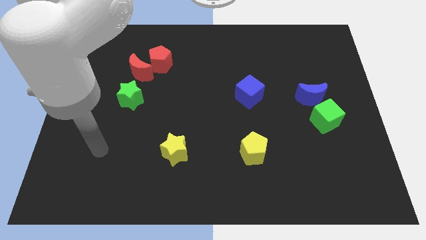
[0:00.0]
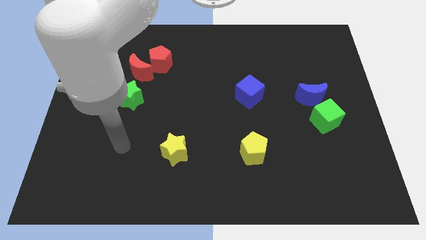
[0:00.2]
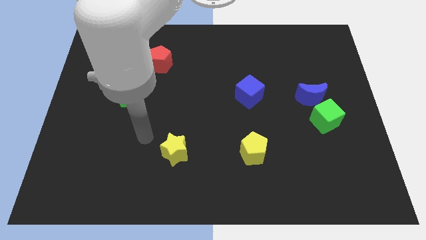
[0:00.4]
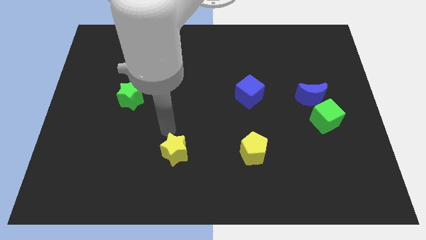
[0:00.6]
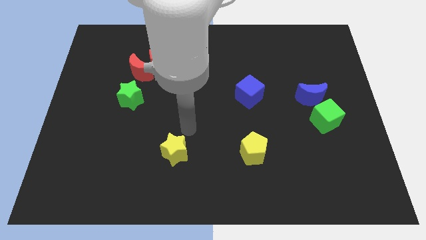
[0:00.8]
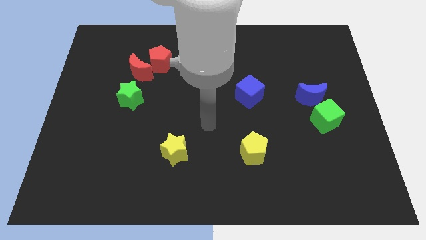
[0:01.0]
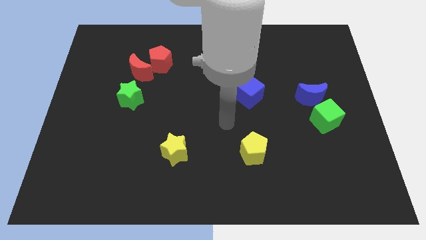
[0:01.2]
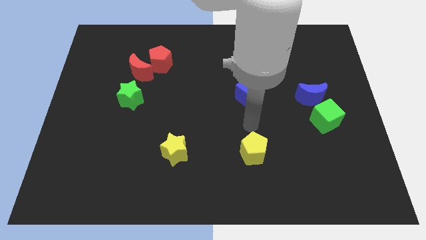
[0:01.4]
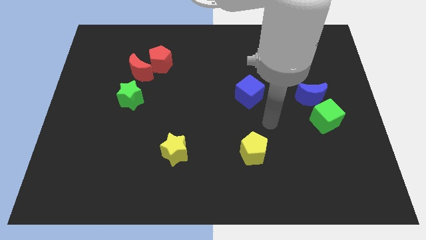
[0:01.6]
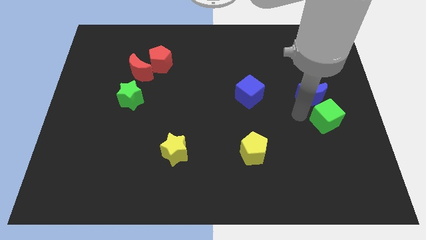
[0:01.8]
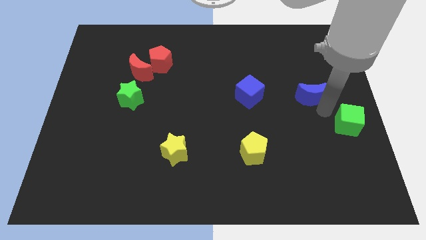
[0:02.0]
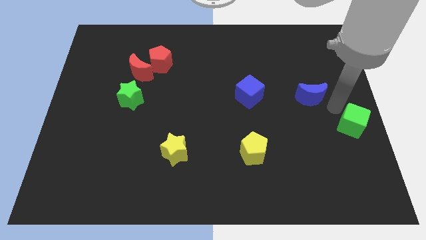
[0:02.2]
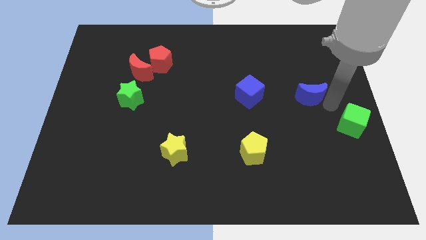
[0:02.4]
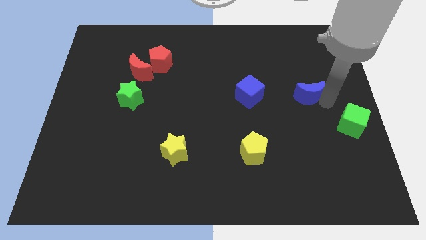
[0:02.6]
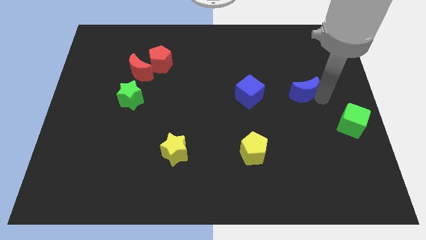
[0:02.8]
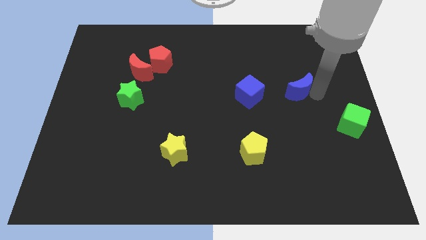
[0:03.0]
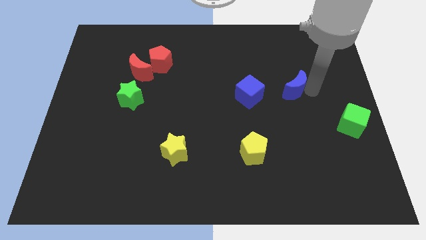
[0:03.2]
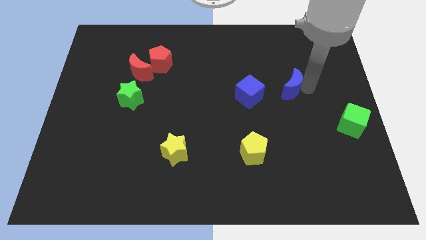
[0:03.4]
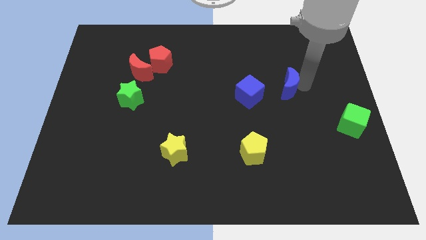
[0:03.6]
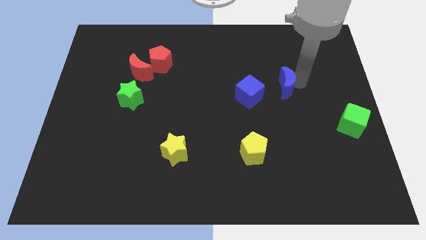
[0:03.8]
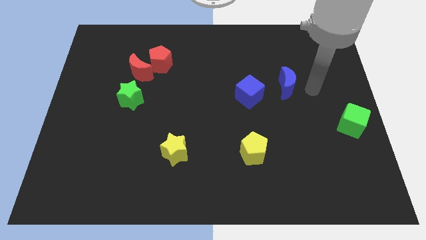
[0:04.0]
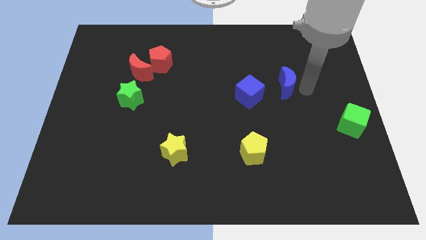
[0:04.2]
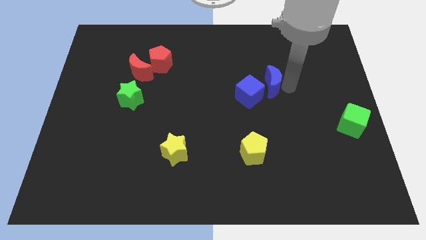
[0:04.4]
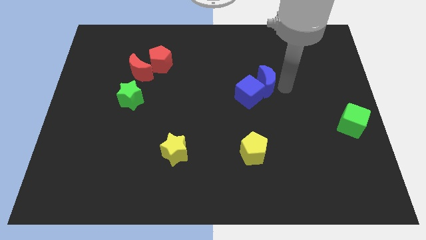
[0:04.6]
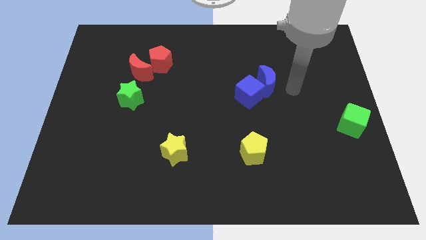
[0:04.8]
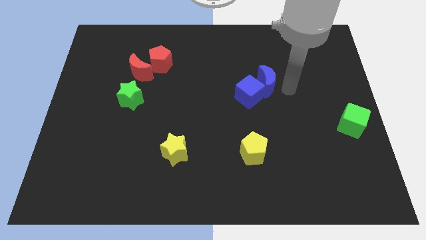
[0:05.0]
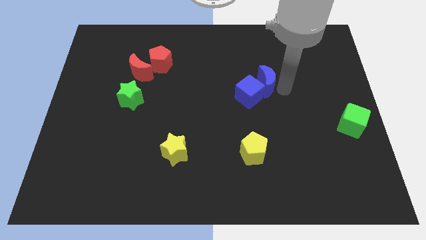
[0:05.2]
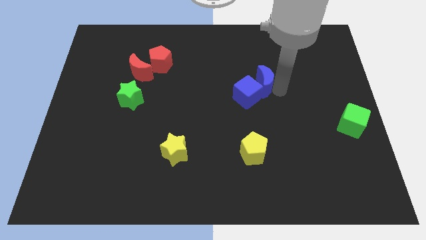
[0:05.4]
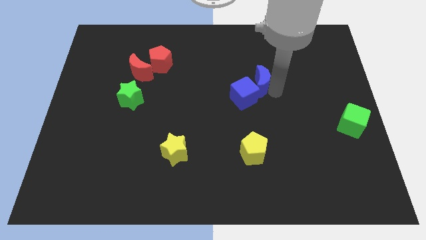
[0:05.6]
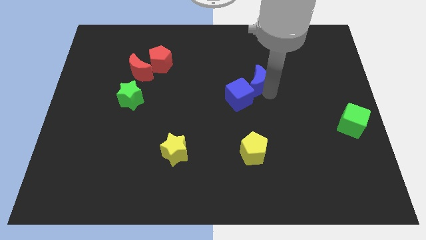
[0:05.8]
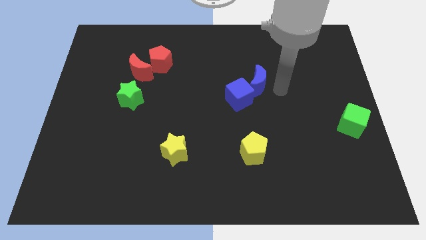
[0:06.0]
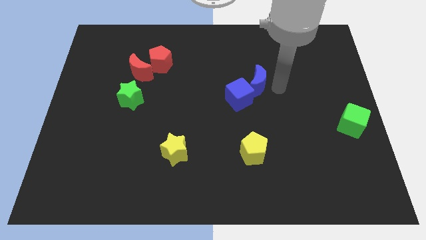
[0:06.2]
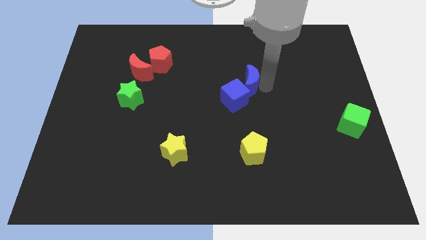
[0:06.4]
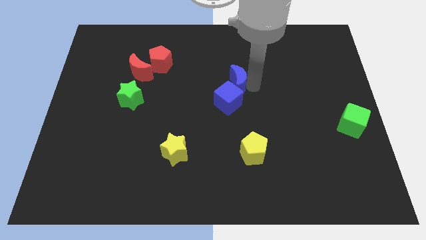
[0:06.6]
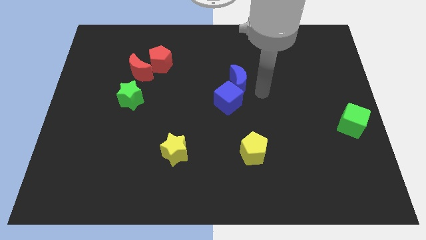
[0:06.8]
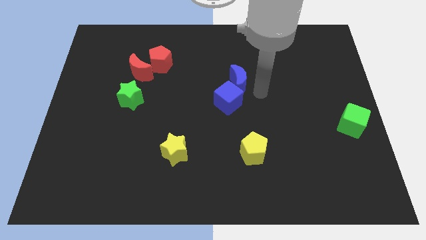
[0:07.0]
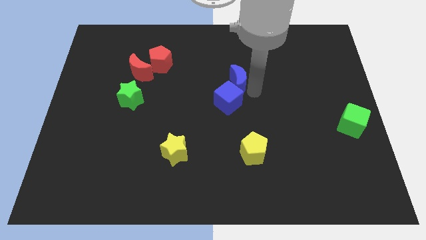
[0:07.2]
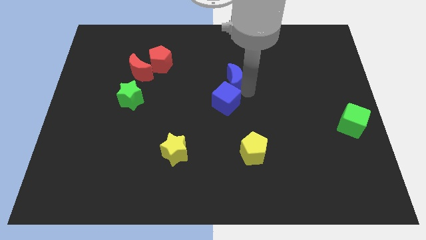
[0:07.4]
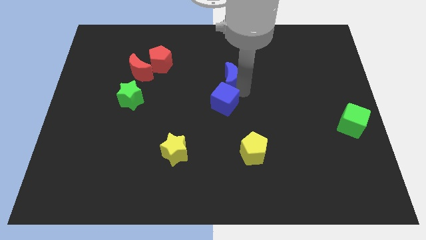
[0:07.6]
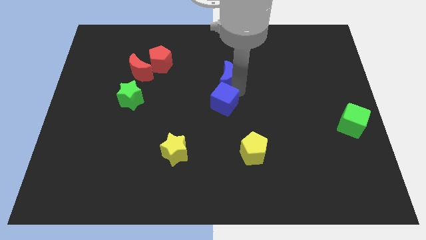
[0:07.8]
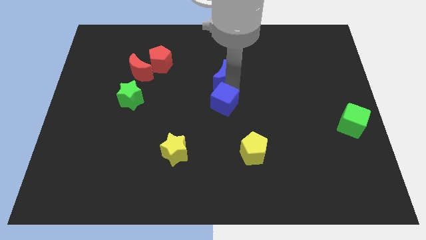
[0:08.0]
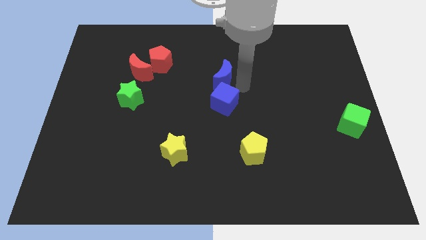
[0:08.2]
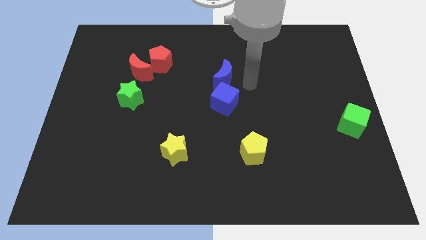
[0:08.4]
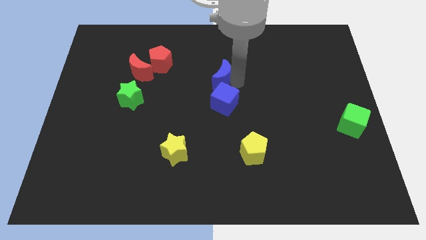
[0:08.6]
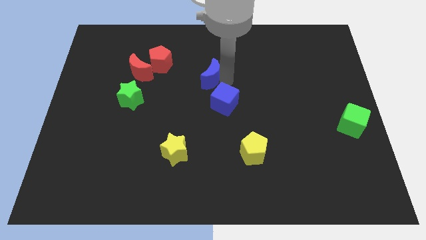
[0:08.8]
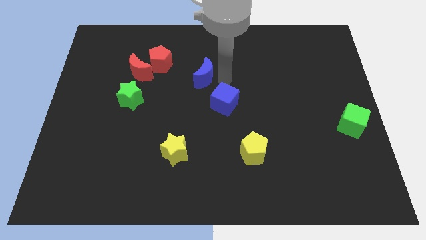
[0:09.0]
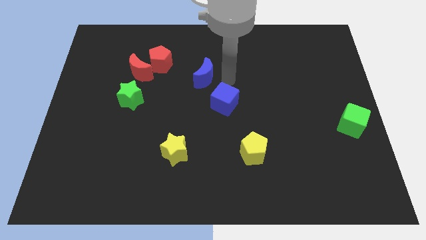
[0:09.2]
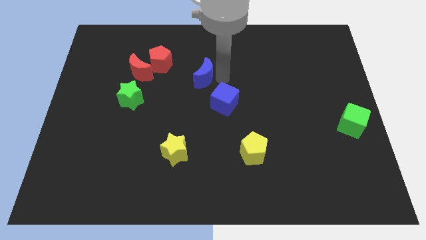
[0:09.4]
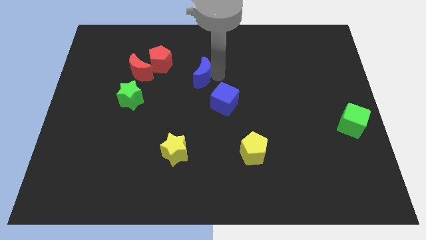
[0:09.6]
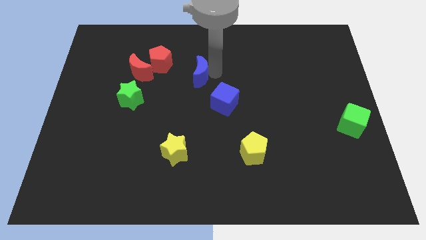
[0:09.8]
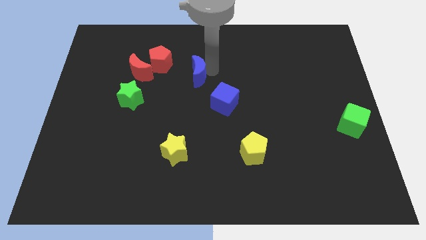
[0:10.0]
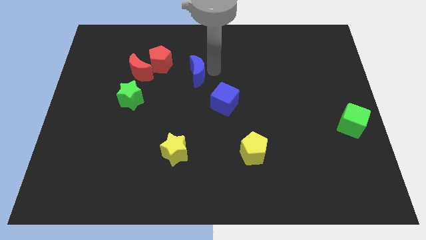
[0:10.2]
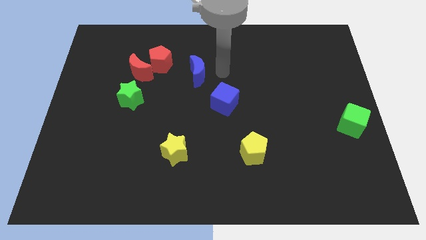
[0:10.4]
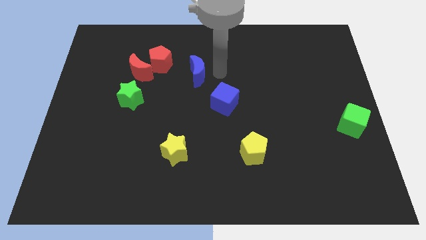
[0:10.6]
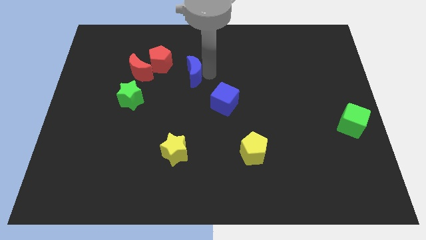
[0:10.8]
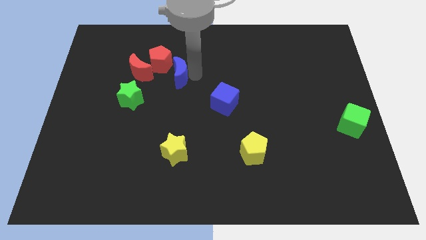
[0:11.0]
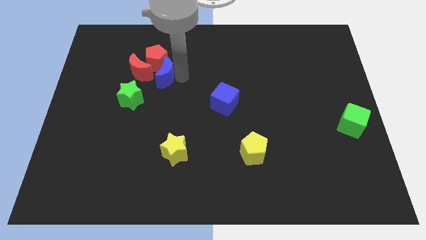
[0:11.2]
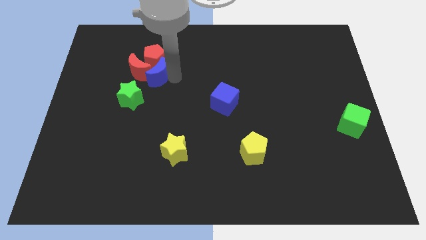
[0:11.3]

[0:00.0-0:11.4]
move the blue moon close to the red moon

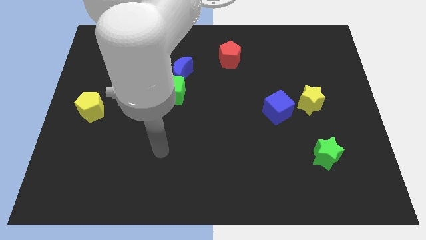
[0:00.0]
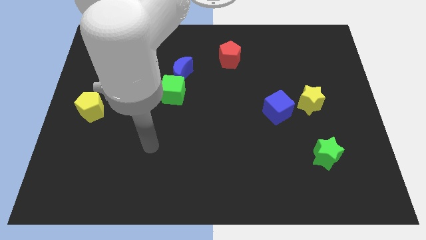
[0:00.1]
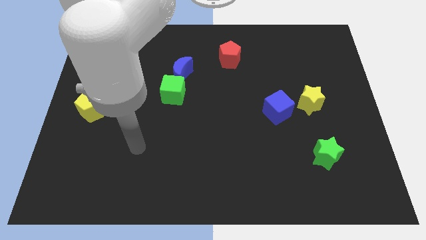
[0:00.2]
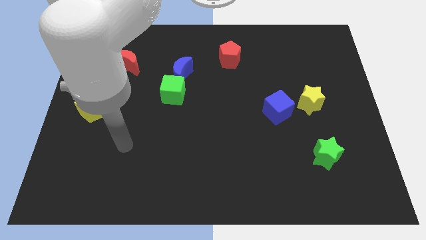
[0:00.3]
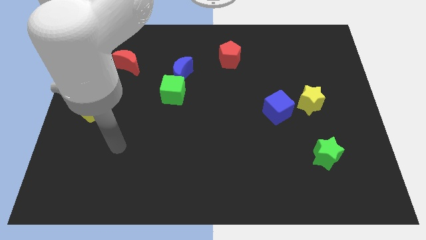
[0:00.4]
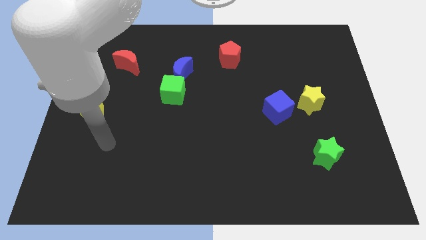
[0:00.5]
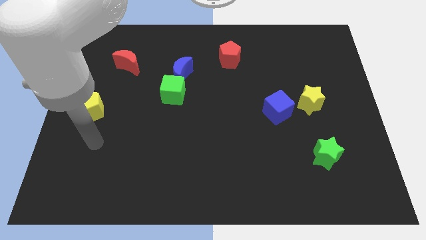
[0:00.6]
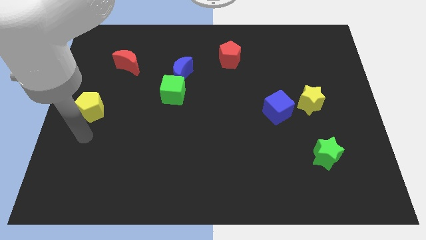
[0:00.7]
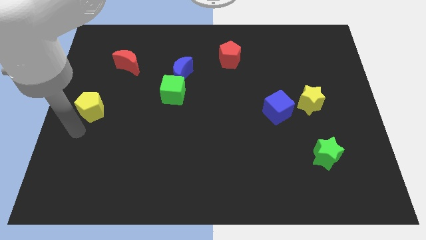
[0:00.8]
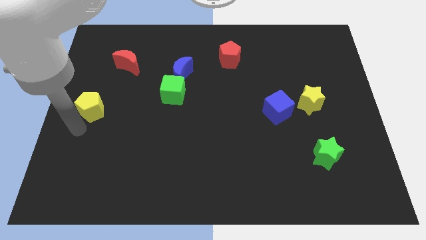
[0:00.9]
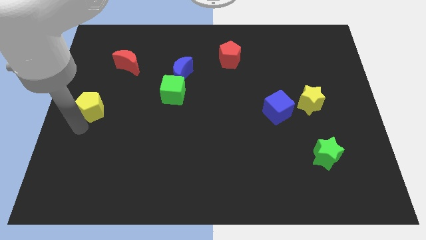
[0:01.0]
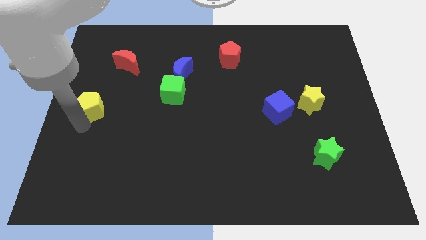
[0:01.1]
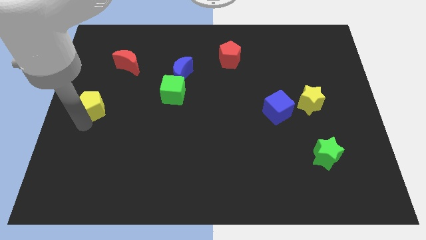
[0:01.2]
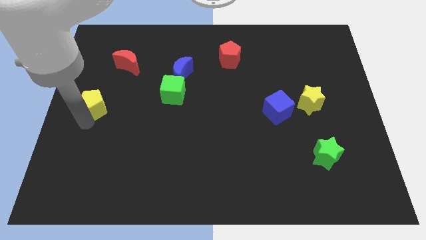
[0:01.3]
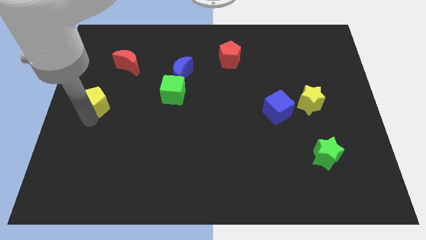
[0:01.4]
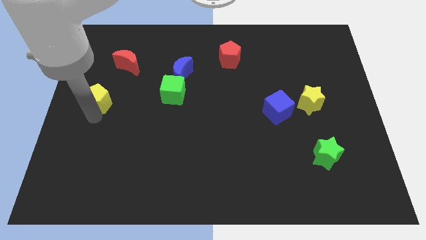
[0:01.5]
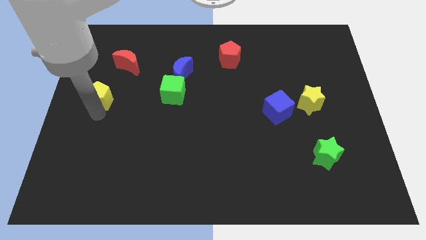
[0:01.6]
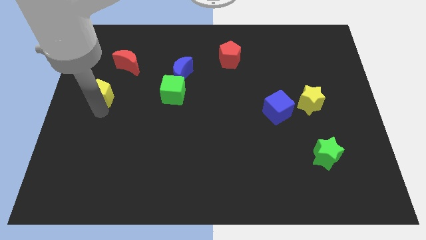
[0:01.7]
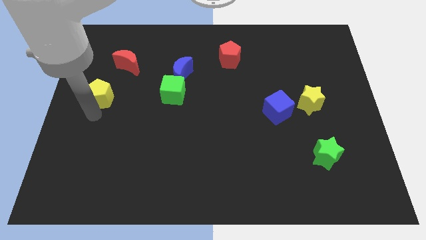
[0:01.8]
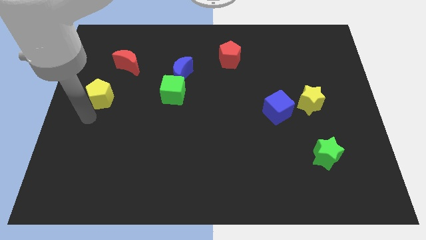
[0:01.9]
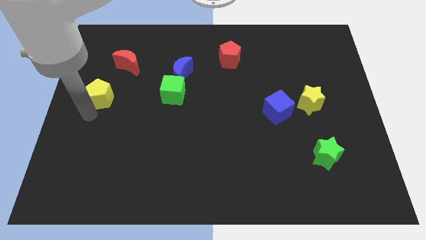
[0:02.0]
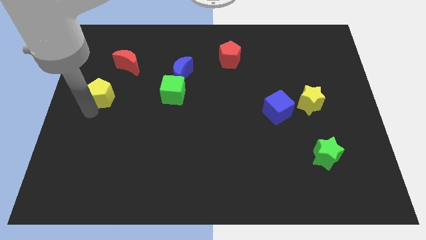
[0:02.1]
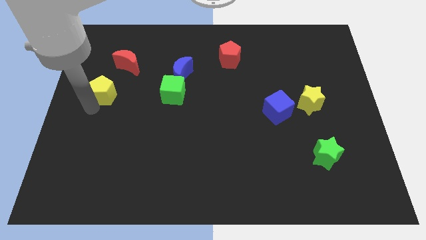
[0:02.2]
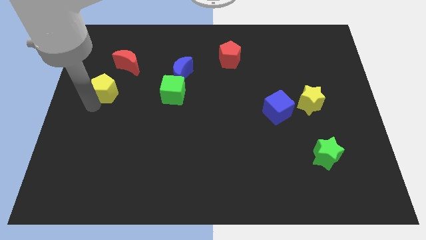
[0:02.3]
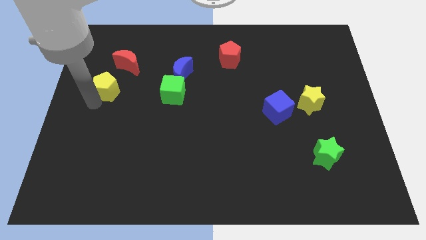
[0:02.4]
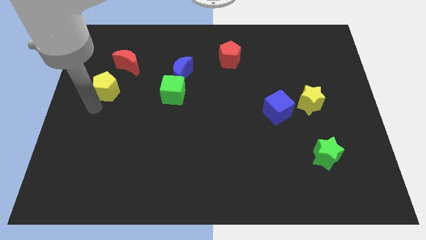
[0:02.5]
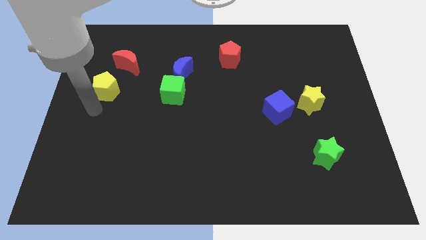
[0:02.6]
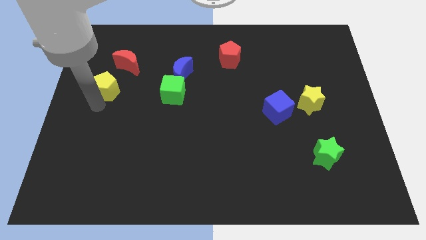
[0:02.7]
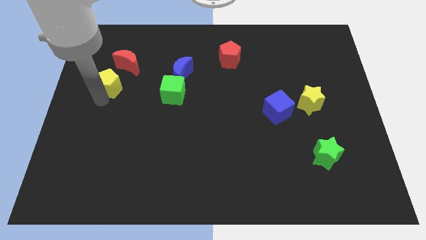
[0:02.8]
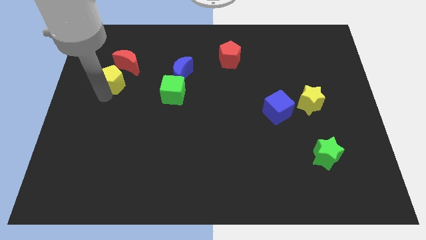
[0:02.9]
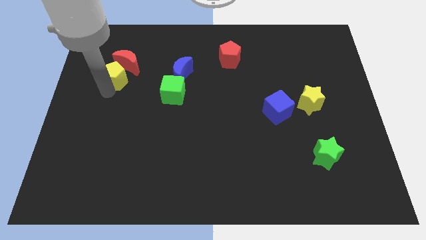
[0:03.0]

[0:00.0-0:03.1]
slide the yellow pentagon close to the red moon
